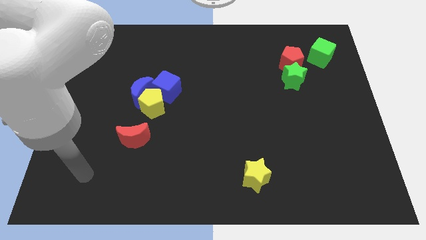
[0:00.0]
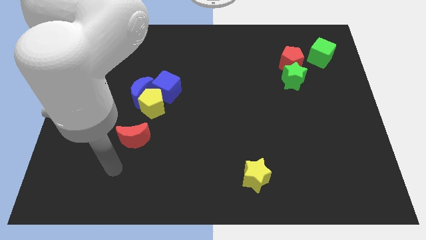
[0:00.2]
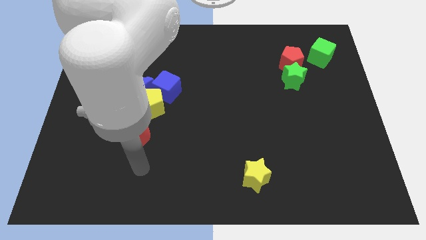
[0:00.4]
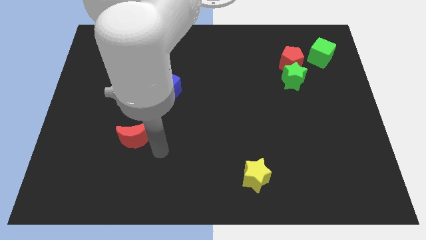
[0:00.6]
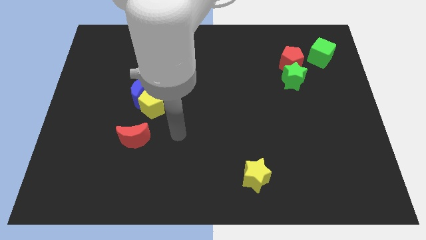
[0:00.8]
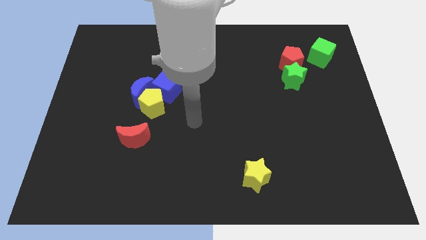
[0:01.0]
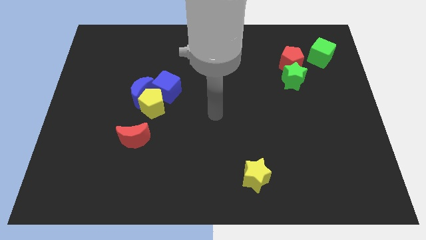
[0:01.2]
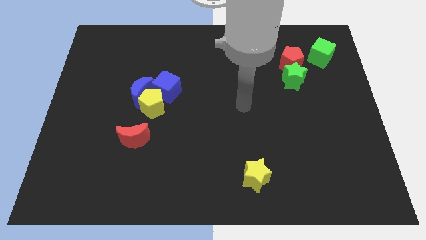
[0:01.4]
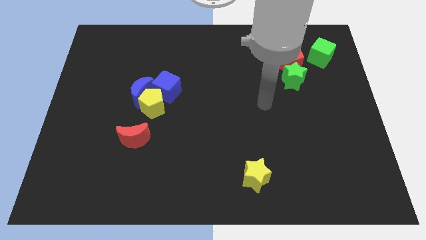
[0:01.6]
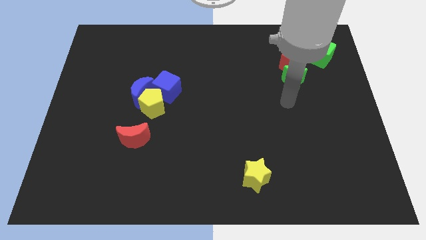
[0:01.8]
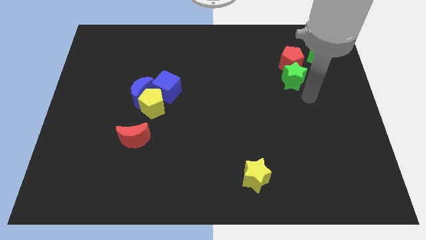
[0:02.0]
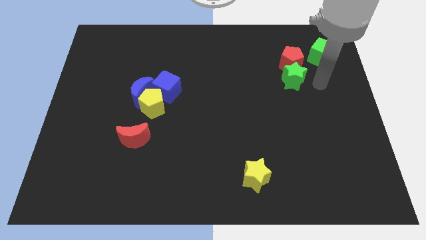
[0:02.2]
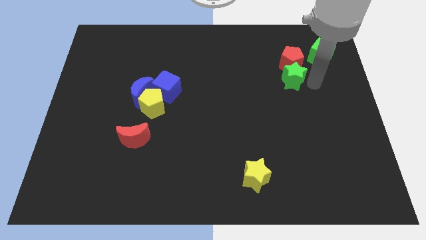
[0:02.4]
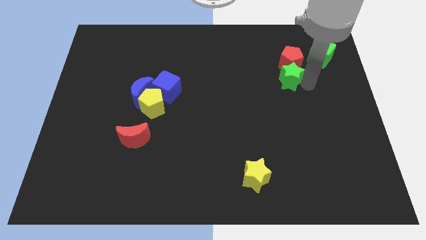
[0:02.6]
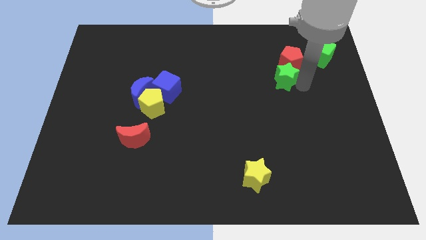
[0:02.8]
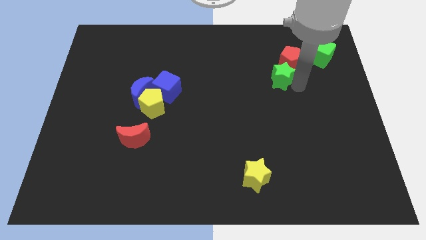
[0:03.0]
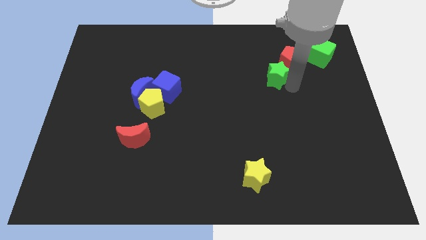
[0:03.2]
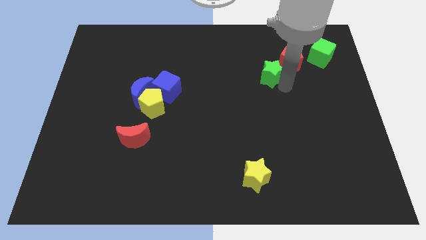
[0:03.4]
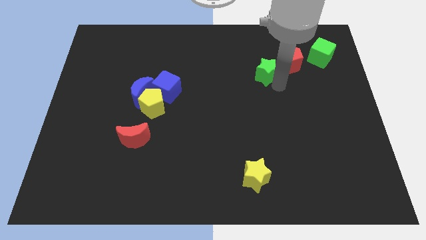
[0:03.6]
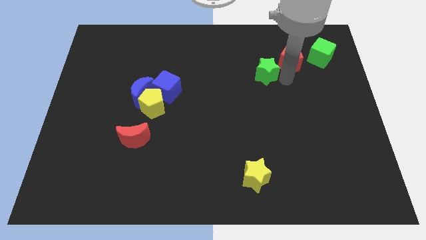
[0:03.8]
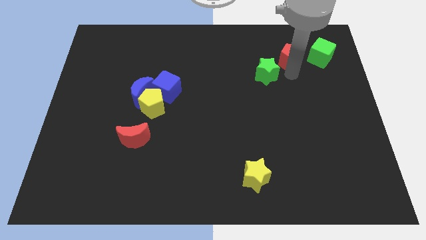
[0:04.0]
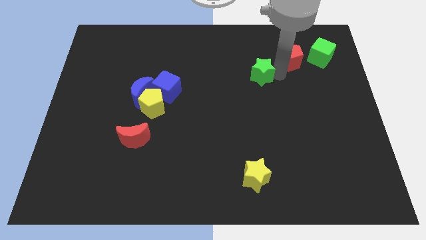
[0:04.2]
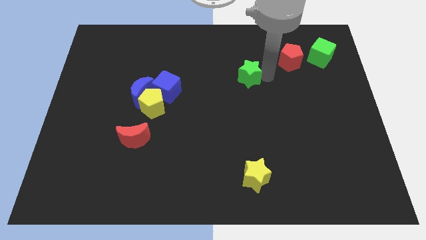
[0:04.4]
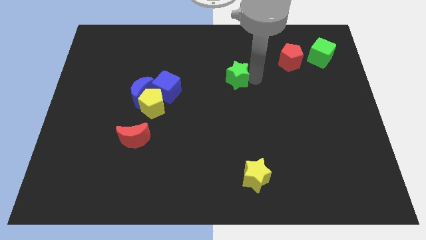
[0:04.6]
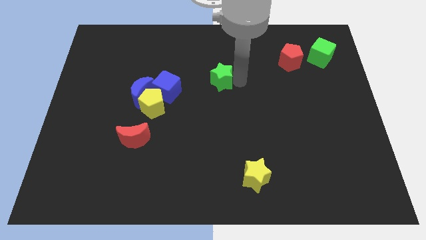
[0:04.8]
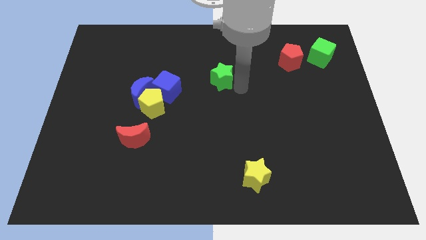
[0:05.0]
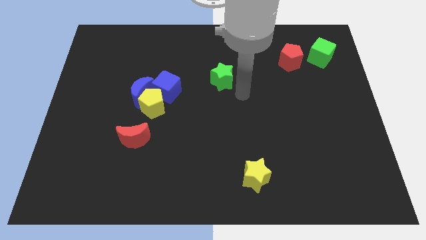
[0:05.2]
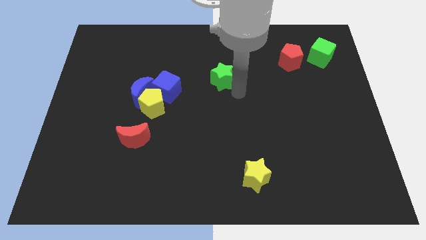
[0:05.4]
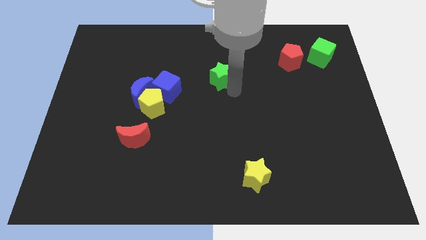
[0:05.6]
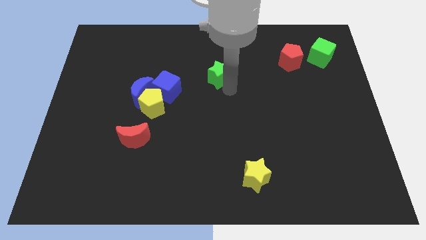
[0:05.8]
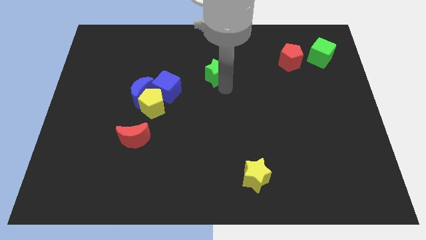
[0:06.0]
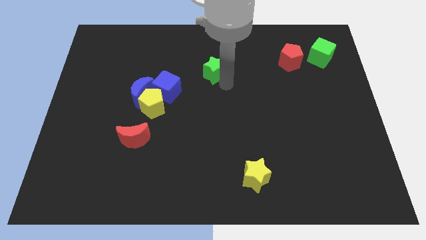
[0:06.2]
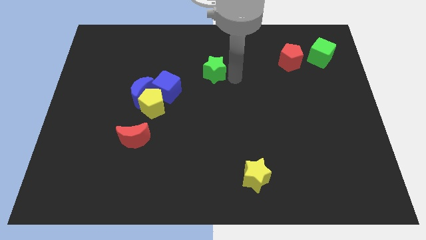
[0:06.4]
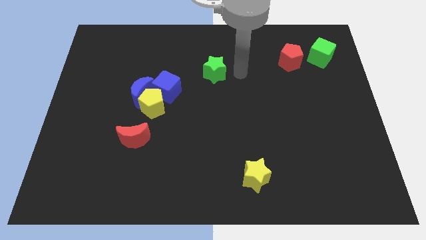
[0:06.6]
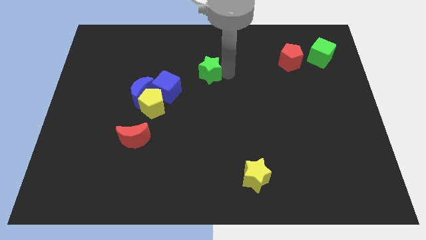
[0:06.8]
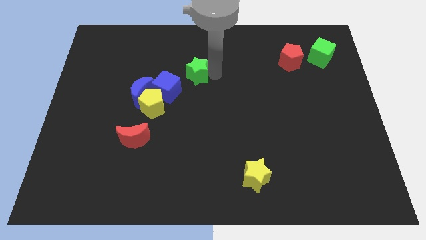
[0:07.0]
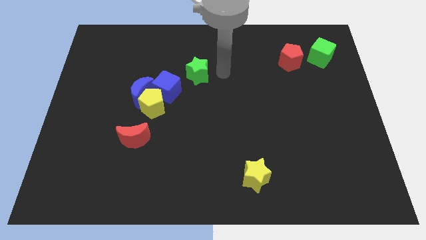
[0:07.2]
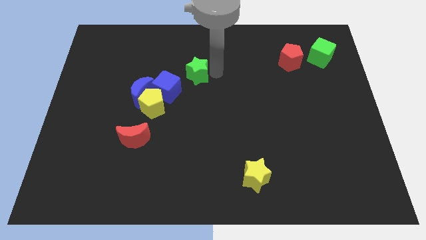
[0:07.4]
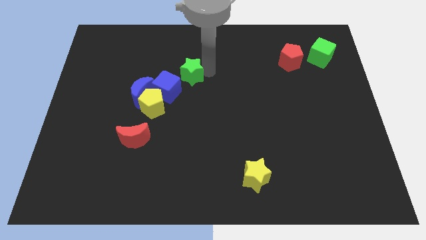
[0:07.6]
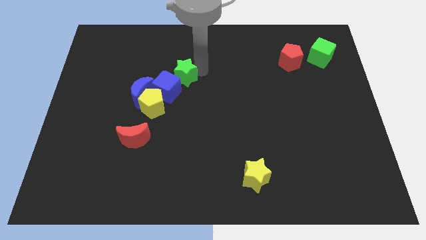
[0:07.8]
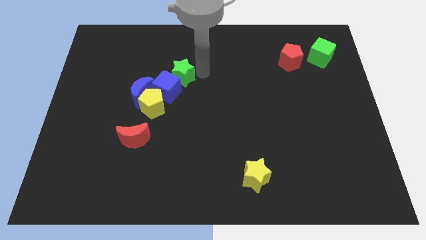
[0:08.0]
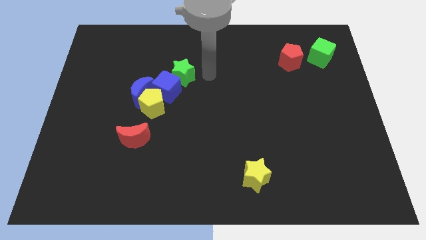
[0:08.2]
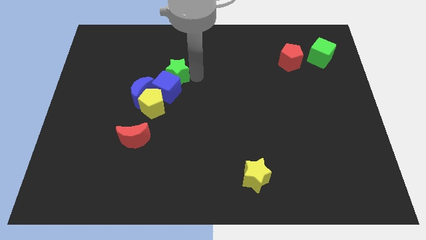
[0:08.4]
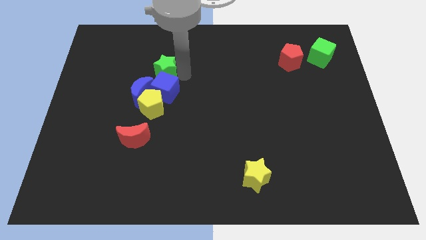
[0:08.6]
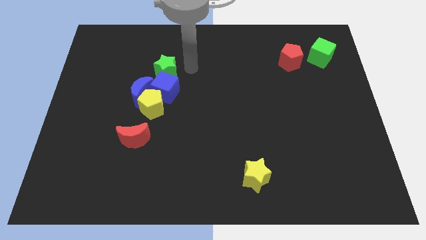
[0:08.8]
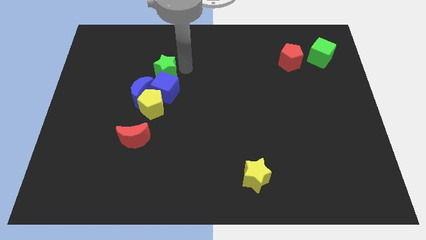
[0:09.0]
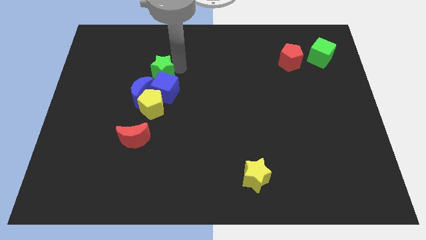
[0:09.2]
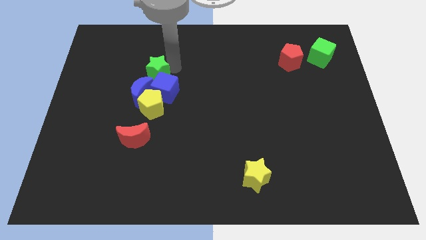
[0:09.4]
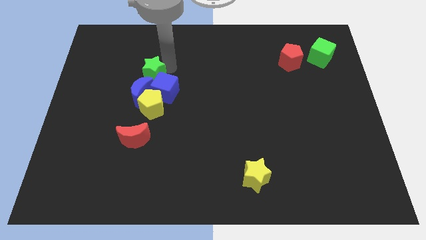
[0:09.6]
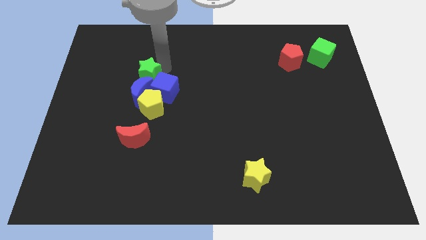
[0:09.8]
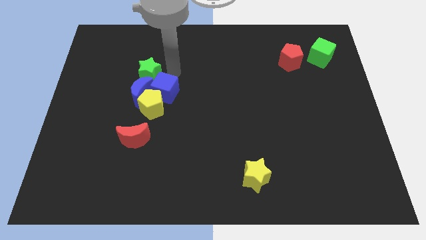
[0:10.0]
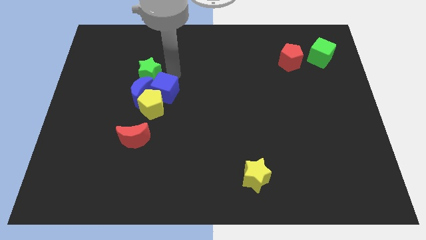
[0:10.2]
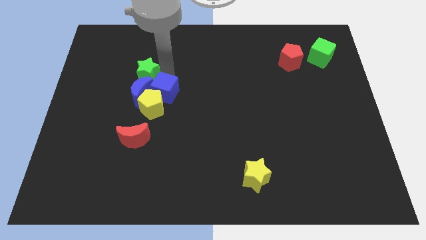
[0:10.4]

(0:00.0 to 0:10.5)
push the green star diagonally up and to the left of the blue moon

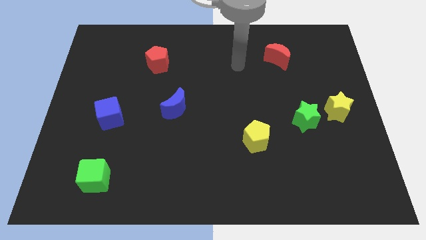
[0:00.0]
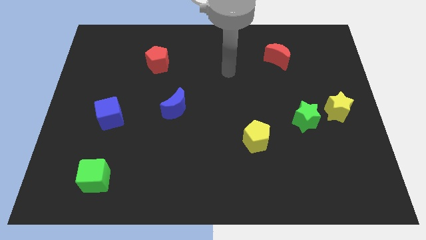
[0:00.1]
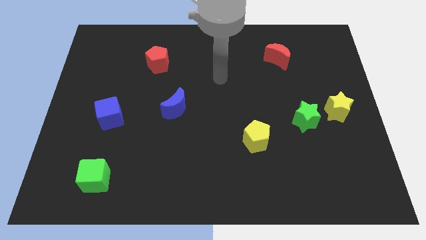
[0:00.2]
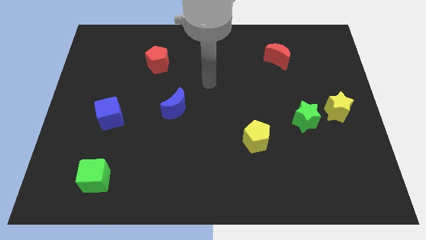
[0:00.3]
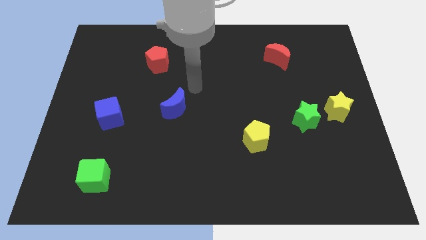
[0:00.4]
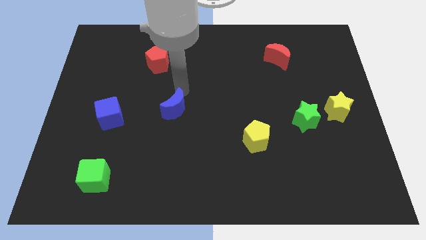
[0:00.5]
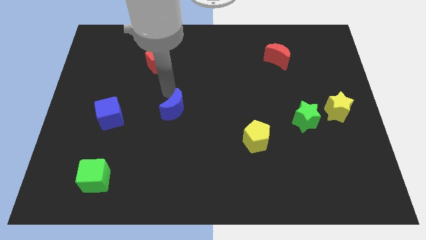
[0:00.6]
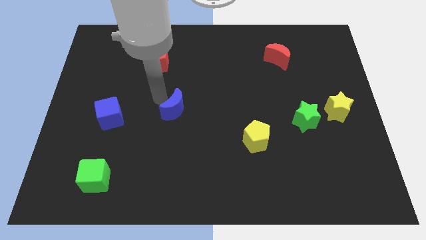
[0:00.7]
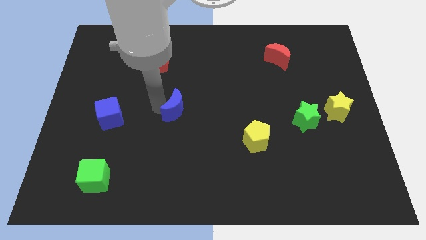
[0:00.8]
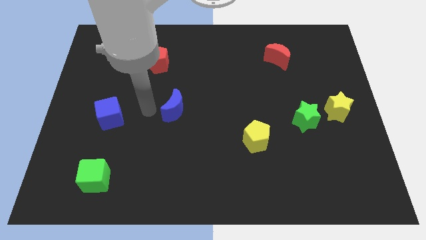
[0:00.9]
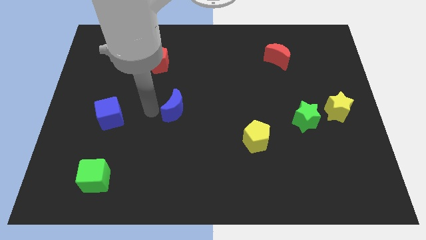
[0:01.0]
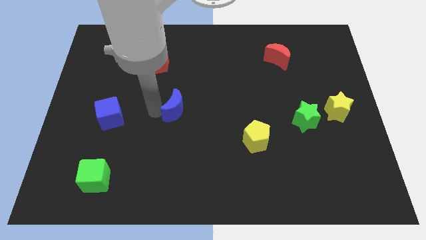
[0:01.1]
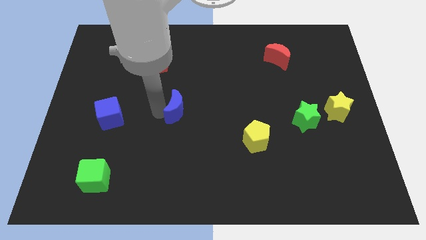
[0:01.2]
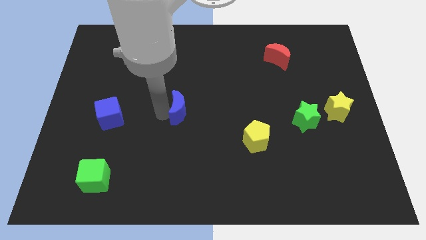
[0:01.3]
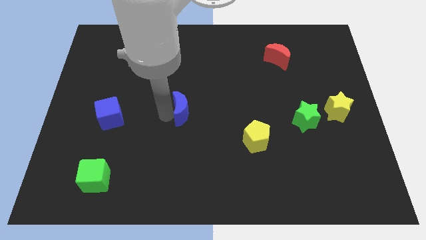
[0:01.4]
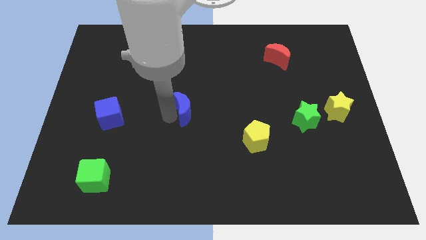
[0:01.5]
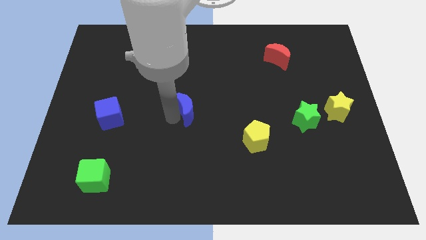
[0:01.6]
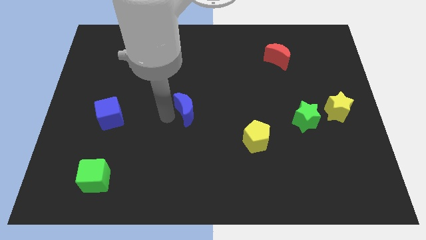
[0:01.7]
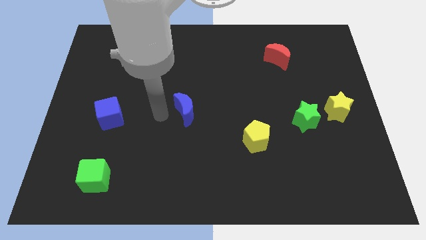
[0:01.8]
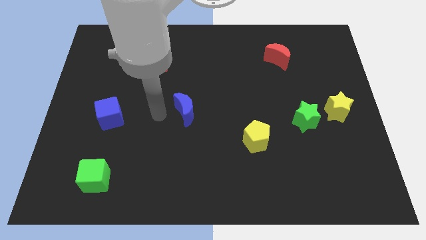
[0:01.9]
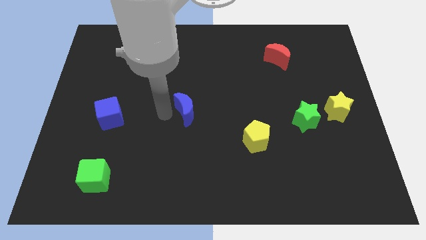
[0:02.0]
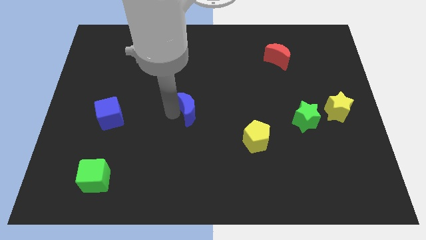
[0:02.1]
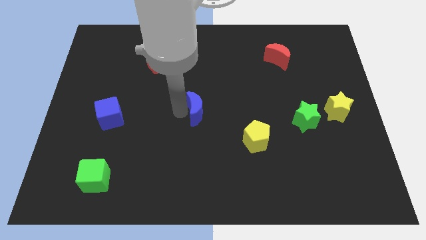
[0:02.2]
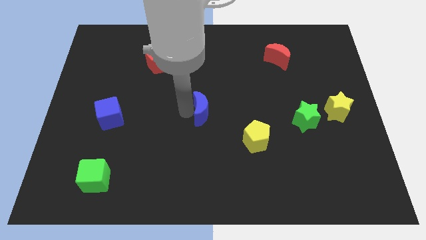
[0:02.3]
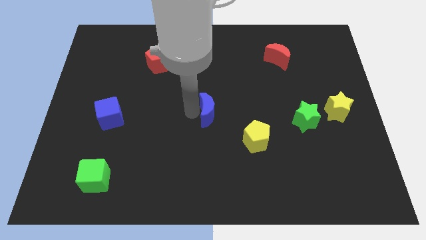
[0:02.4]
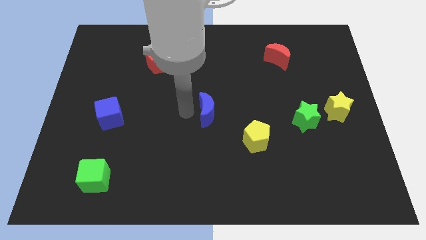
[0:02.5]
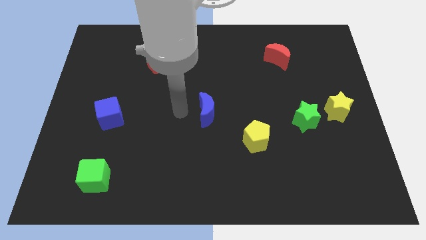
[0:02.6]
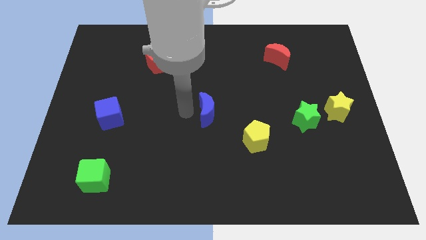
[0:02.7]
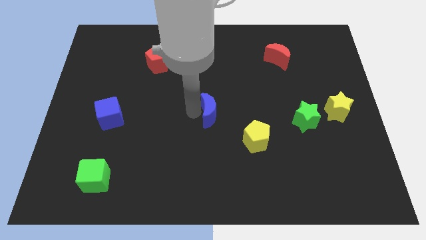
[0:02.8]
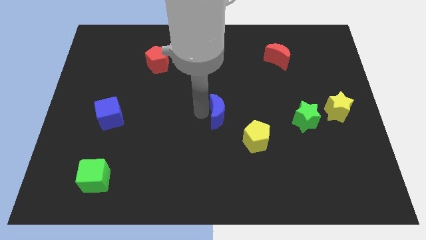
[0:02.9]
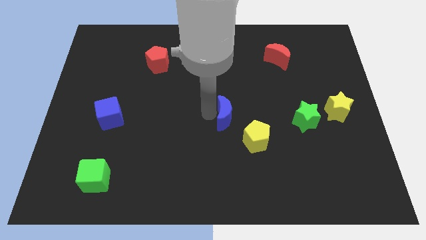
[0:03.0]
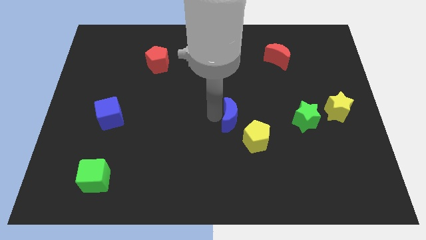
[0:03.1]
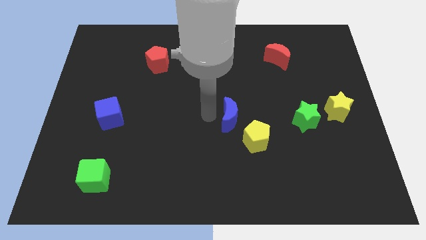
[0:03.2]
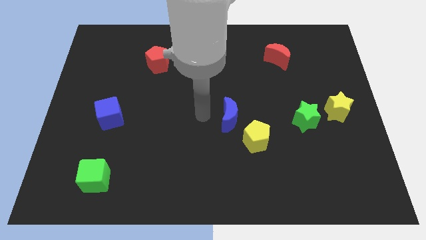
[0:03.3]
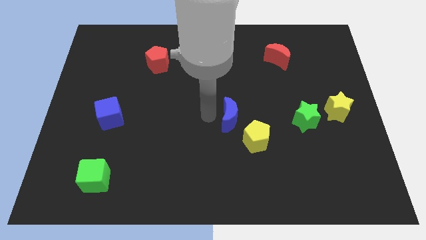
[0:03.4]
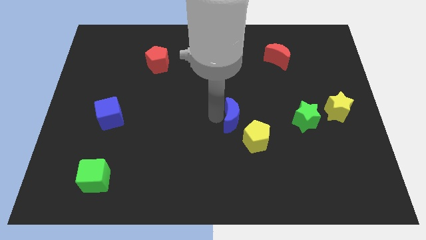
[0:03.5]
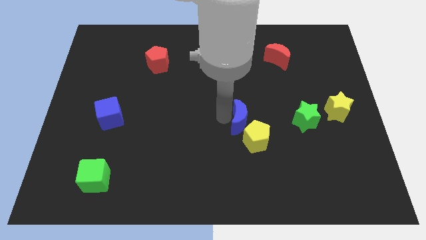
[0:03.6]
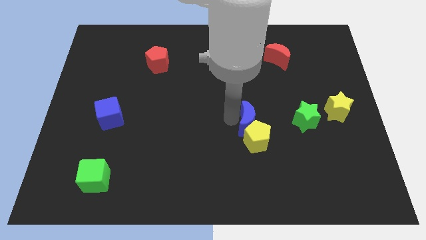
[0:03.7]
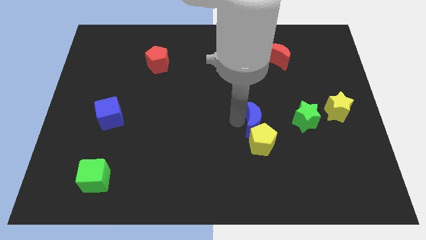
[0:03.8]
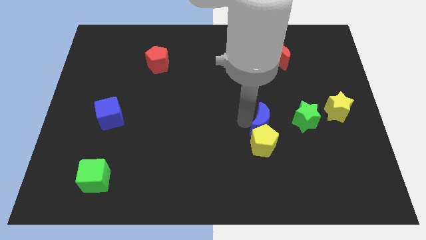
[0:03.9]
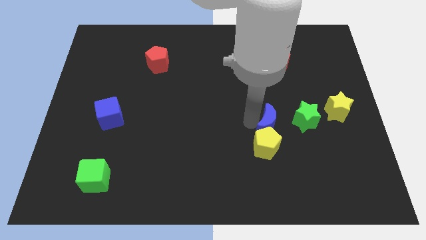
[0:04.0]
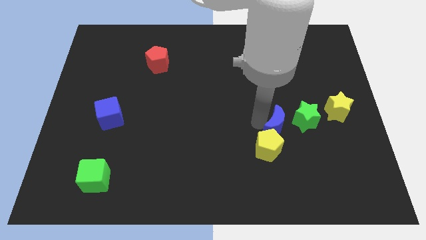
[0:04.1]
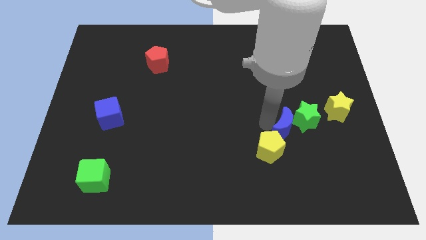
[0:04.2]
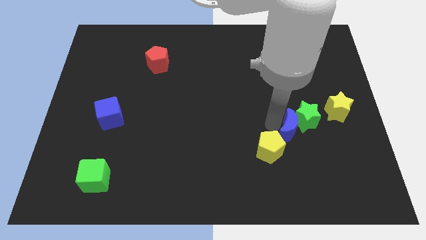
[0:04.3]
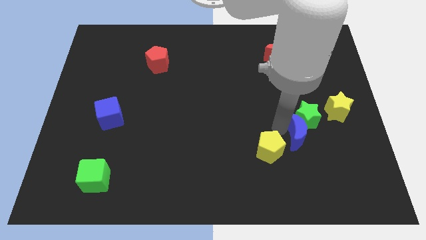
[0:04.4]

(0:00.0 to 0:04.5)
push the blue moon diagonally down and to the left of the yellow star
